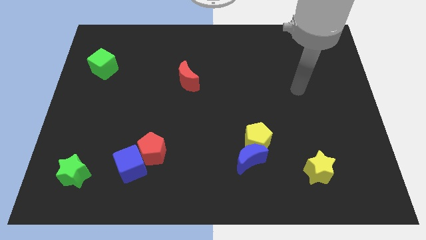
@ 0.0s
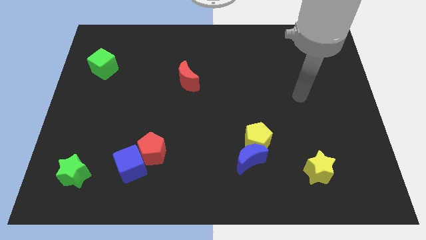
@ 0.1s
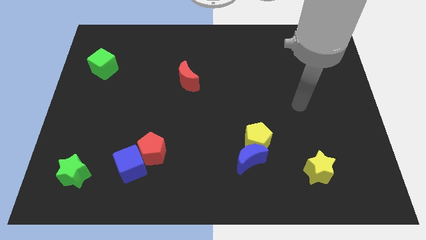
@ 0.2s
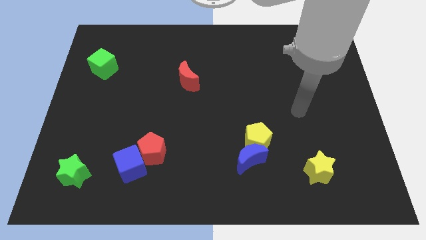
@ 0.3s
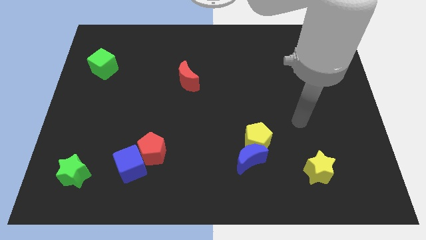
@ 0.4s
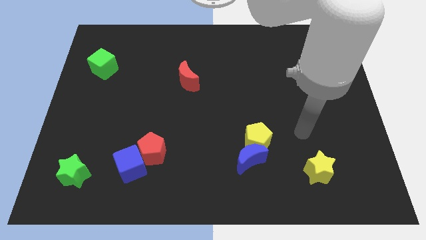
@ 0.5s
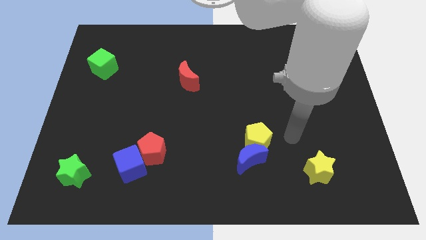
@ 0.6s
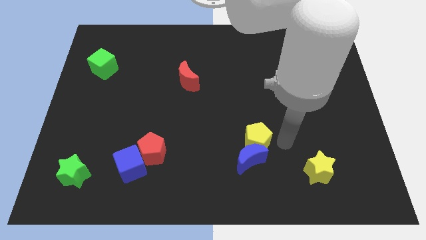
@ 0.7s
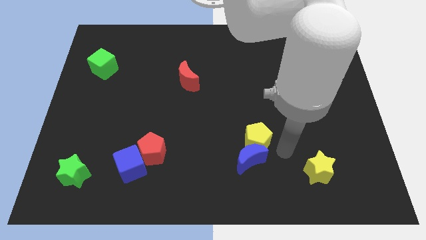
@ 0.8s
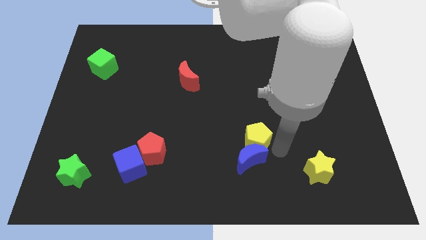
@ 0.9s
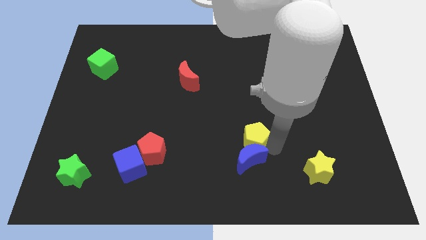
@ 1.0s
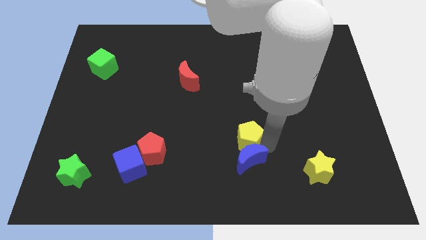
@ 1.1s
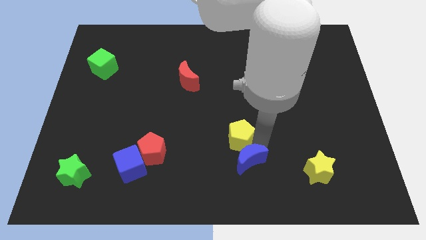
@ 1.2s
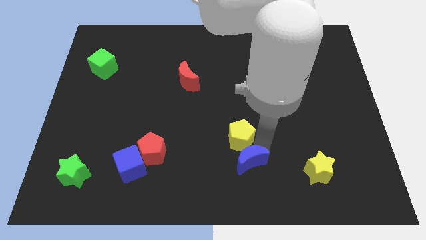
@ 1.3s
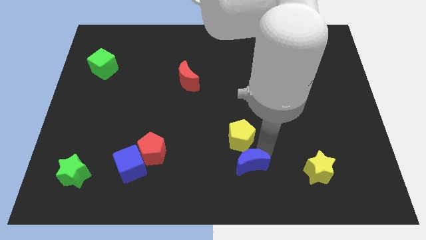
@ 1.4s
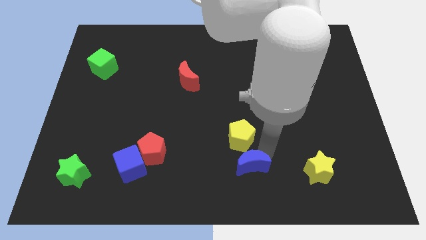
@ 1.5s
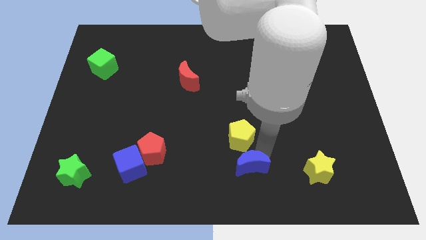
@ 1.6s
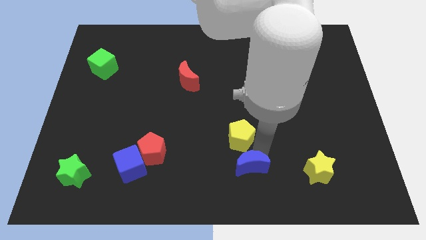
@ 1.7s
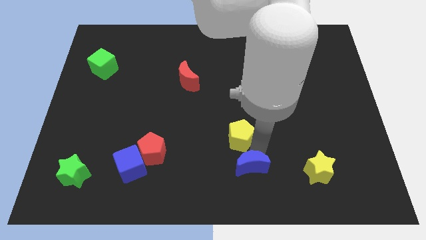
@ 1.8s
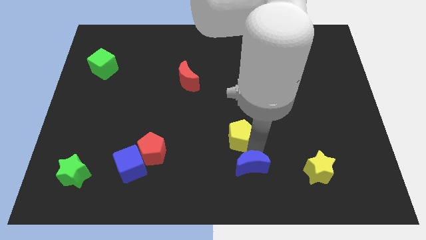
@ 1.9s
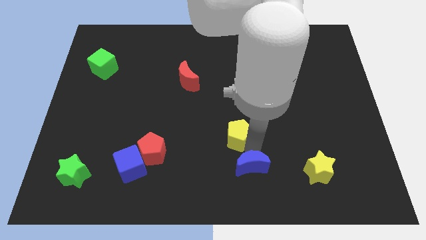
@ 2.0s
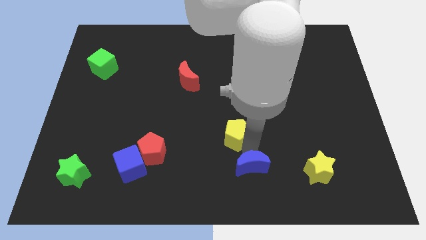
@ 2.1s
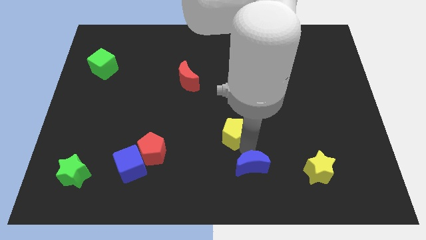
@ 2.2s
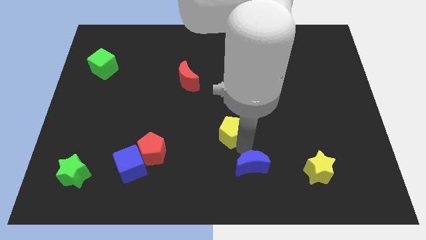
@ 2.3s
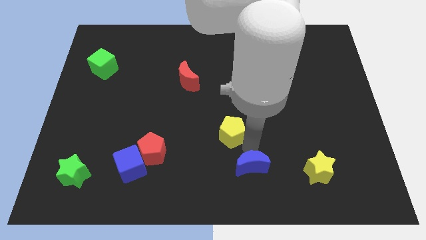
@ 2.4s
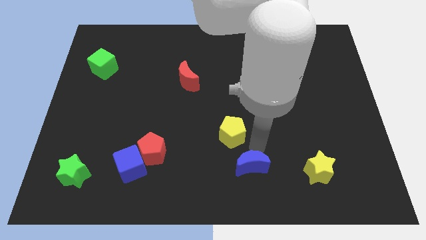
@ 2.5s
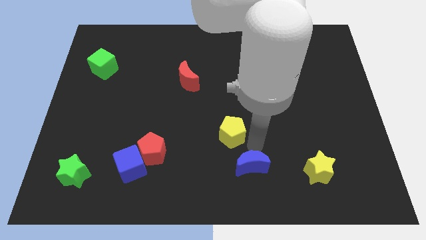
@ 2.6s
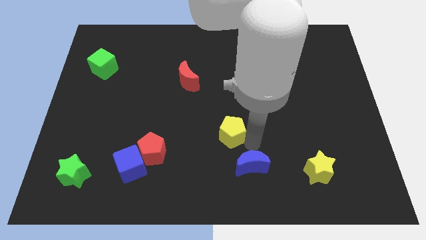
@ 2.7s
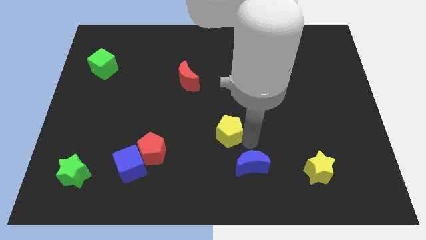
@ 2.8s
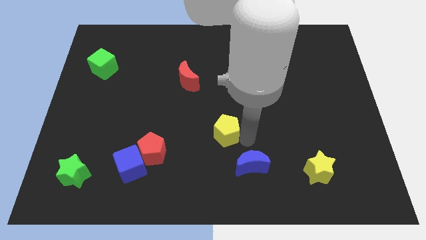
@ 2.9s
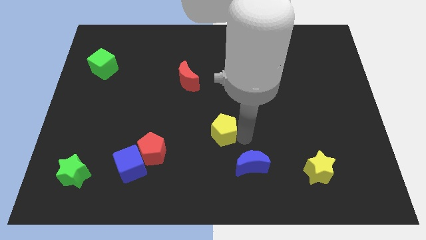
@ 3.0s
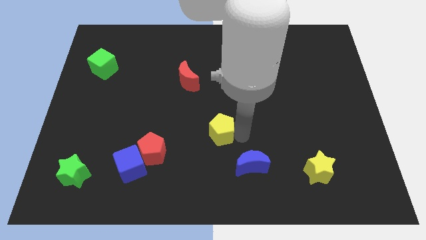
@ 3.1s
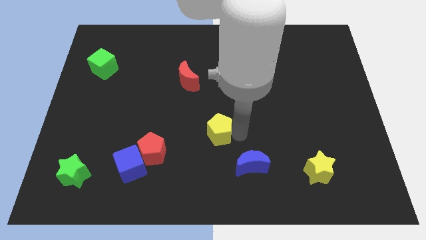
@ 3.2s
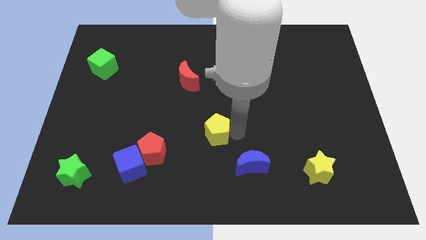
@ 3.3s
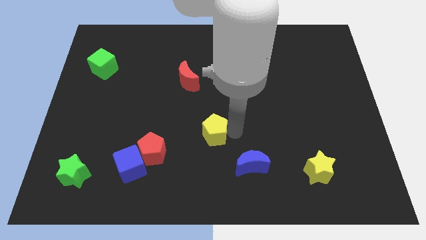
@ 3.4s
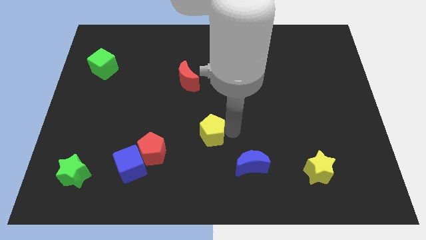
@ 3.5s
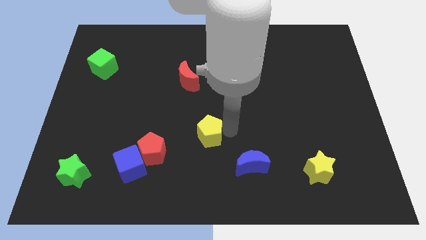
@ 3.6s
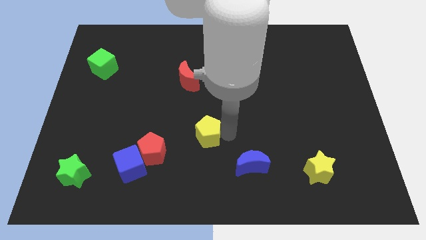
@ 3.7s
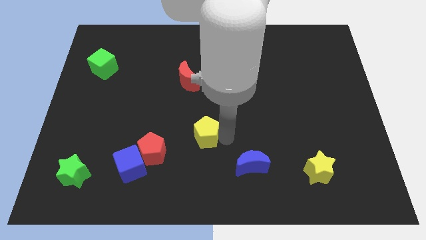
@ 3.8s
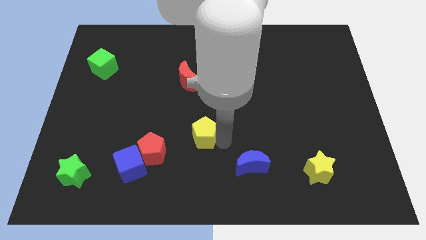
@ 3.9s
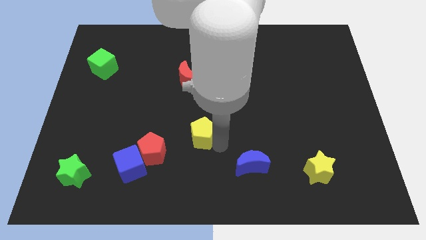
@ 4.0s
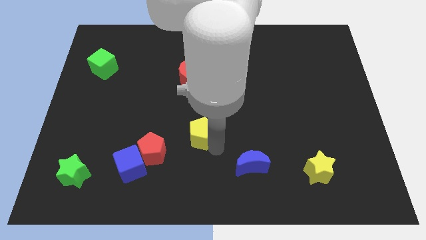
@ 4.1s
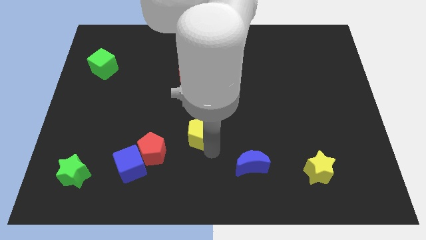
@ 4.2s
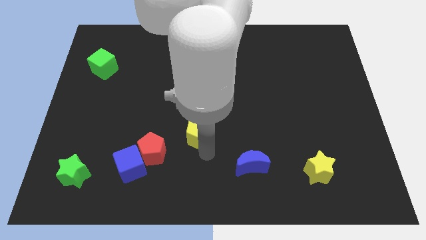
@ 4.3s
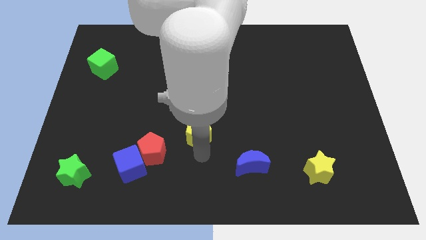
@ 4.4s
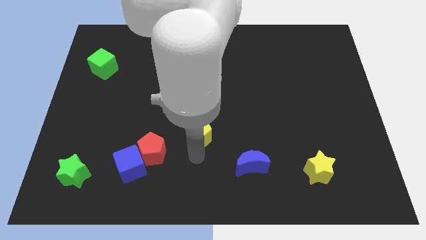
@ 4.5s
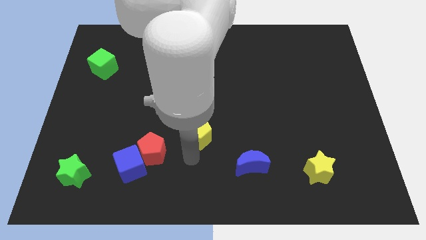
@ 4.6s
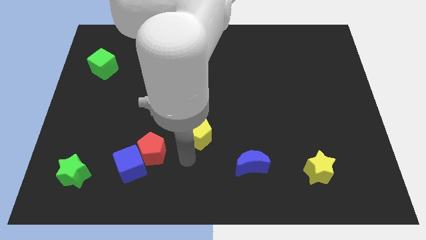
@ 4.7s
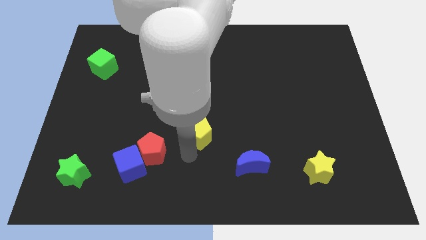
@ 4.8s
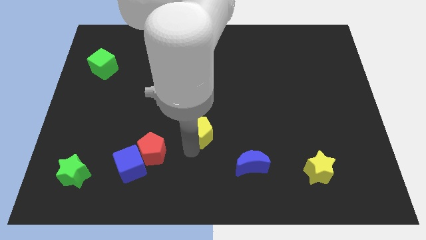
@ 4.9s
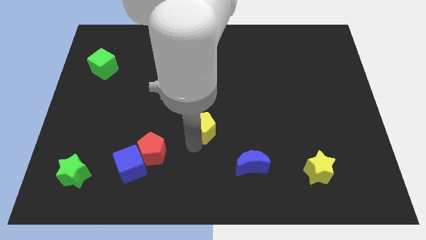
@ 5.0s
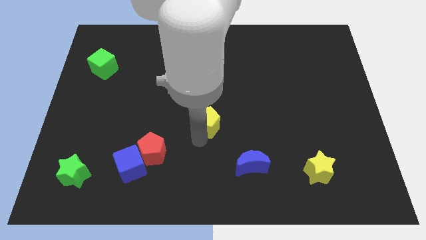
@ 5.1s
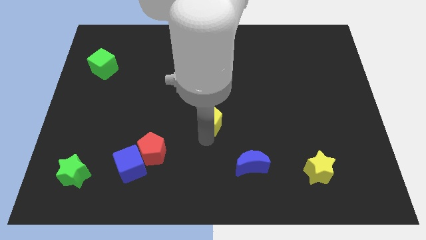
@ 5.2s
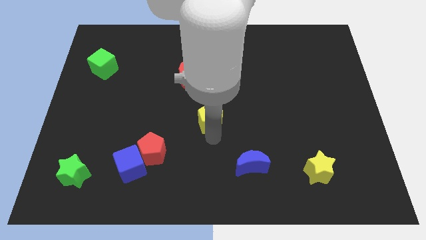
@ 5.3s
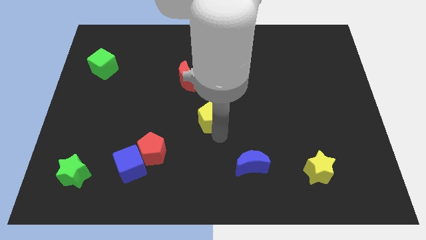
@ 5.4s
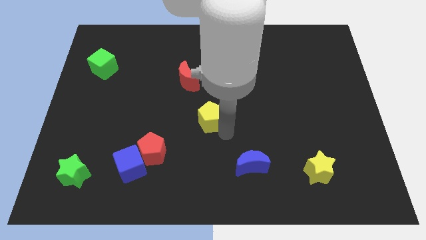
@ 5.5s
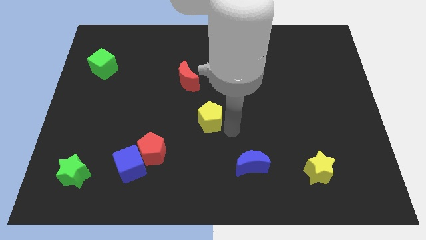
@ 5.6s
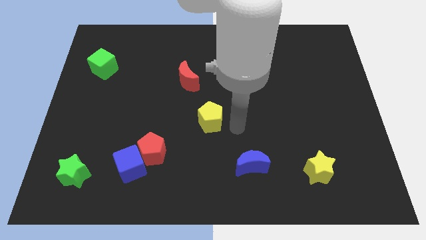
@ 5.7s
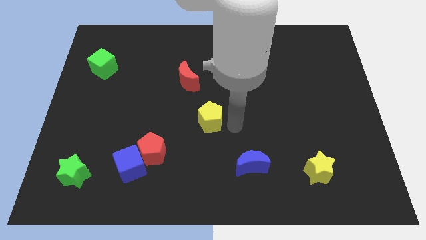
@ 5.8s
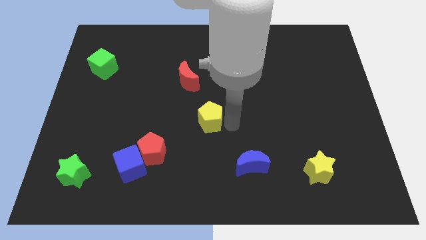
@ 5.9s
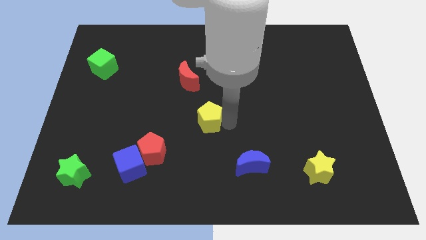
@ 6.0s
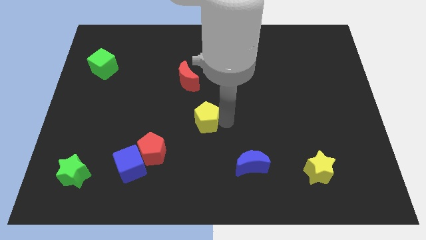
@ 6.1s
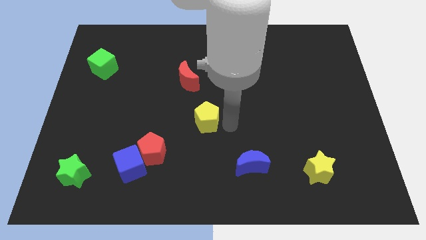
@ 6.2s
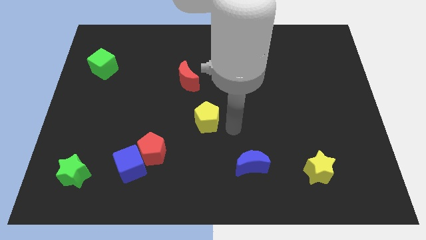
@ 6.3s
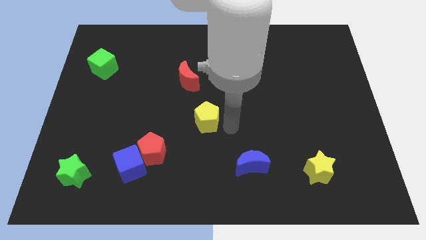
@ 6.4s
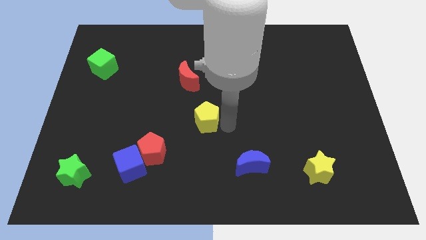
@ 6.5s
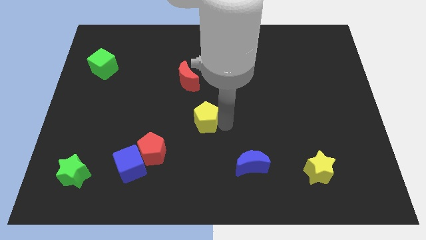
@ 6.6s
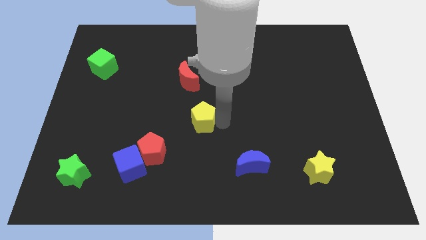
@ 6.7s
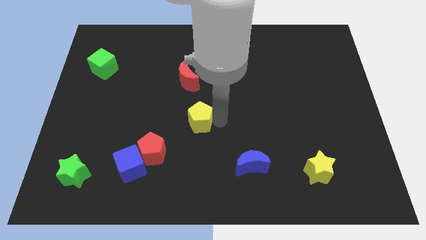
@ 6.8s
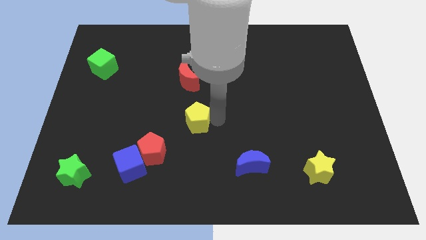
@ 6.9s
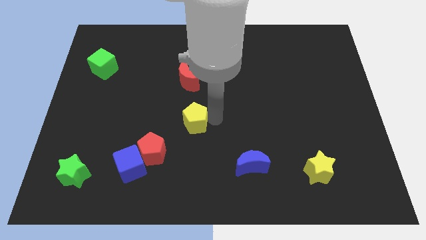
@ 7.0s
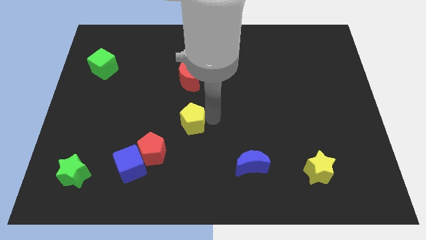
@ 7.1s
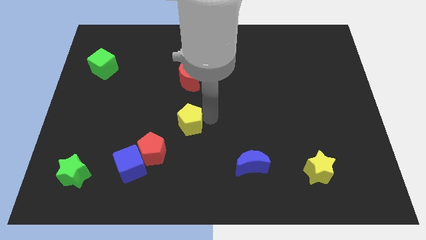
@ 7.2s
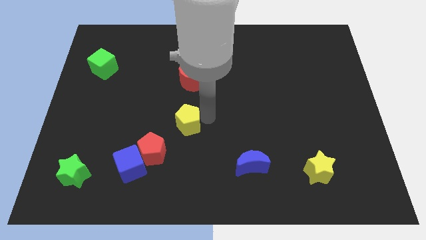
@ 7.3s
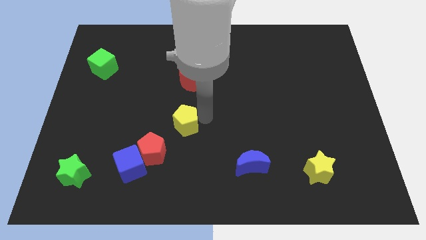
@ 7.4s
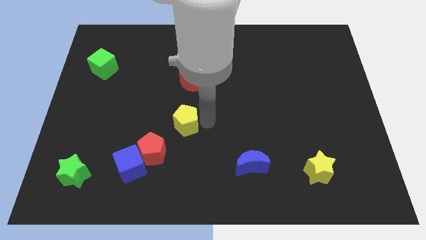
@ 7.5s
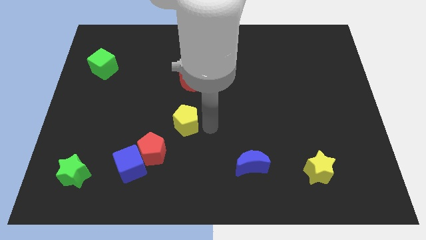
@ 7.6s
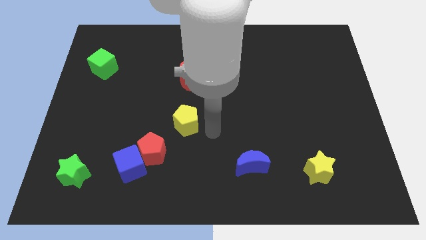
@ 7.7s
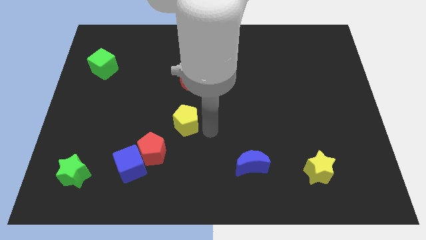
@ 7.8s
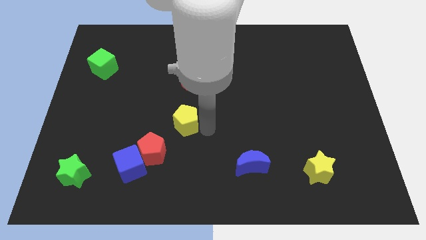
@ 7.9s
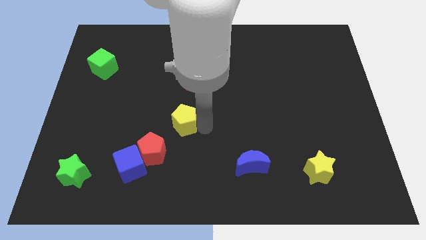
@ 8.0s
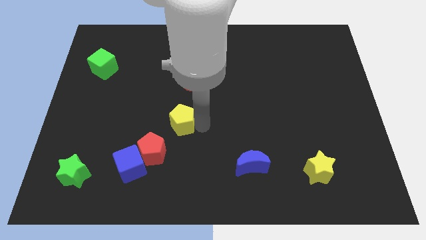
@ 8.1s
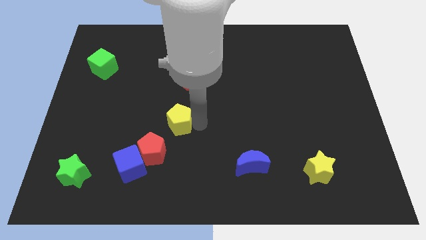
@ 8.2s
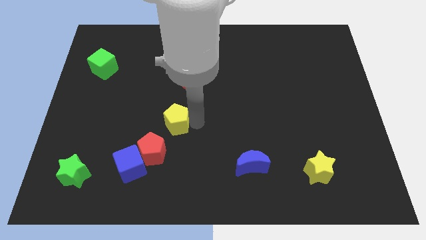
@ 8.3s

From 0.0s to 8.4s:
move the yellow pentagon to the top of the red pentagon
